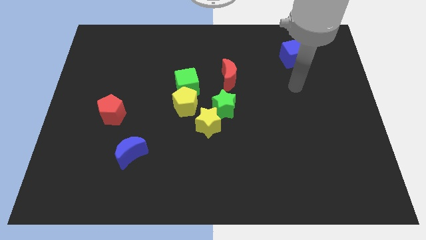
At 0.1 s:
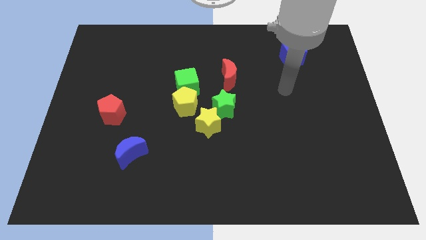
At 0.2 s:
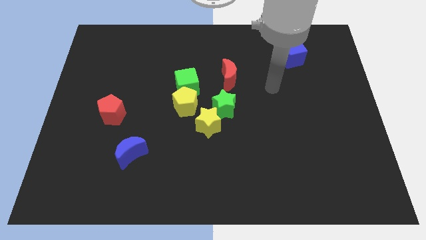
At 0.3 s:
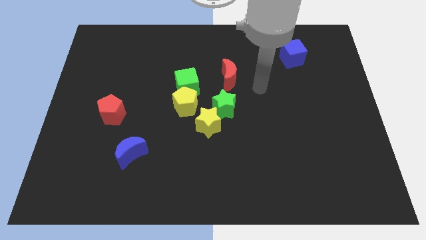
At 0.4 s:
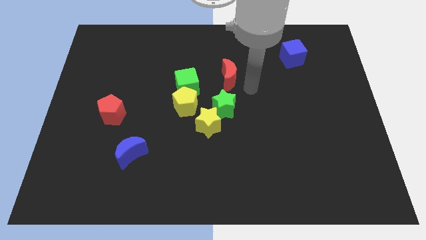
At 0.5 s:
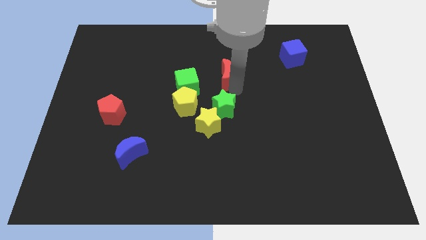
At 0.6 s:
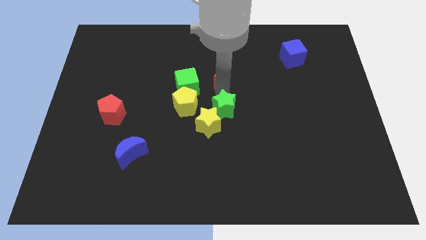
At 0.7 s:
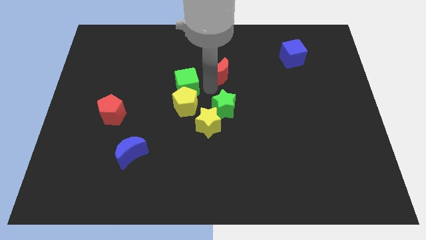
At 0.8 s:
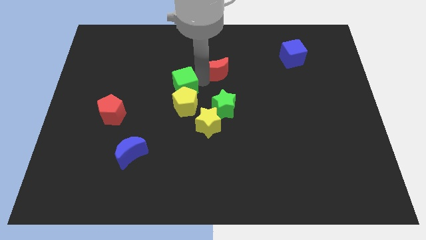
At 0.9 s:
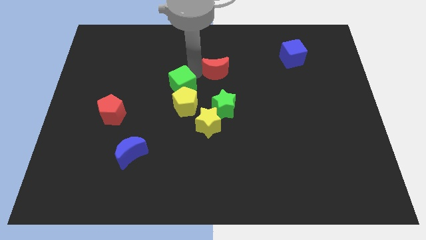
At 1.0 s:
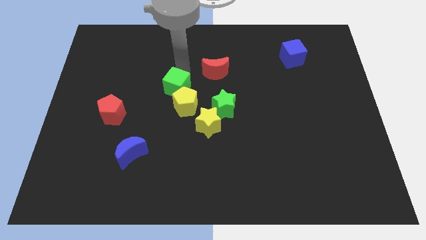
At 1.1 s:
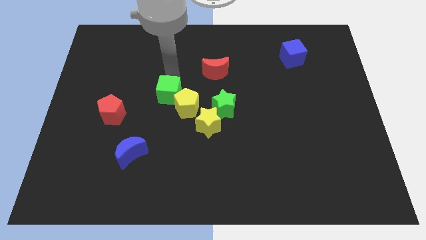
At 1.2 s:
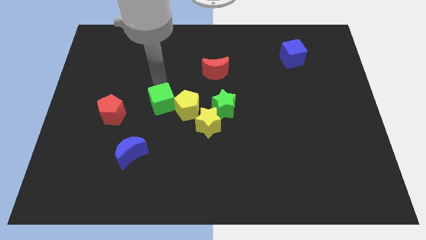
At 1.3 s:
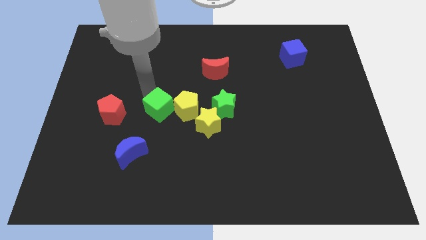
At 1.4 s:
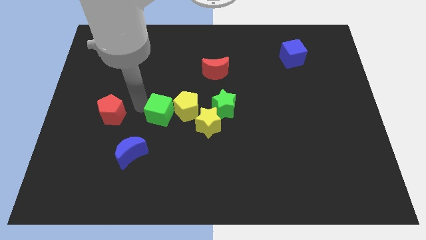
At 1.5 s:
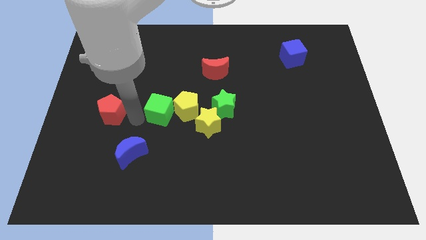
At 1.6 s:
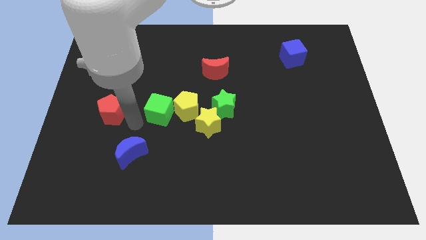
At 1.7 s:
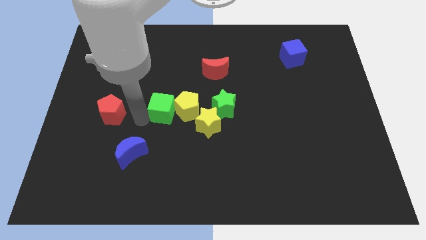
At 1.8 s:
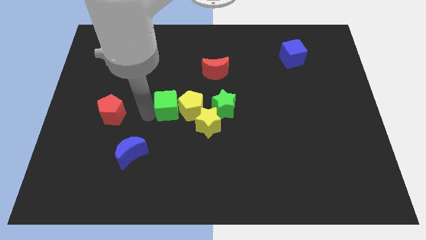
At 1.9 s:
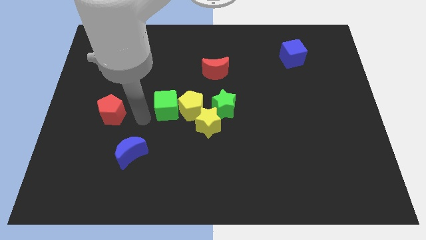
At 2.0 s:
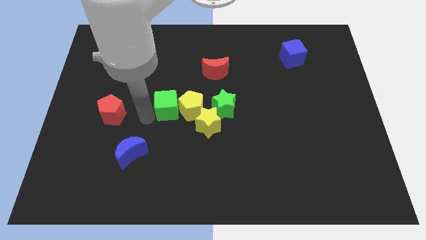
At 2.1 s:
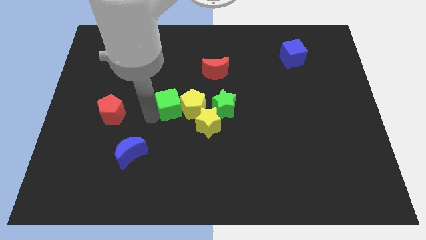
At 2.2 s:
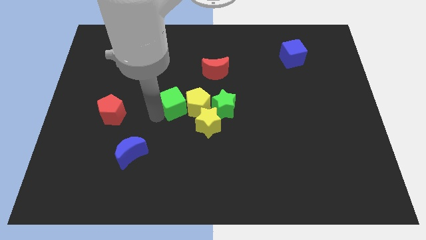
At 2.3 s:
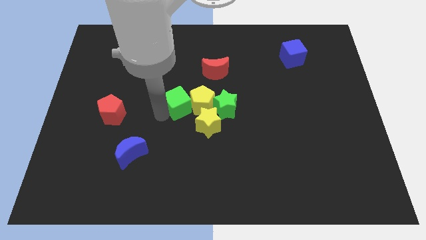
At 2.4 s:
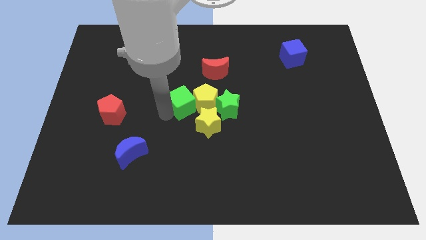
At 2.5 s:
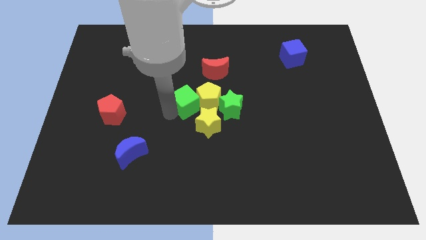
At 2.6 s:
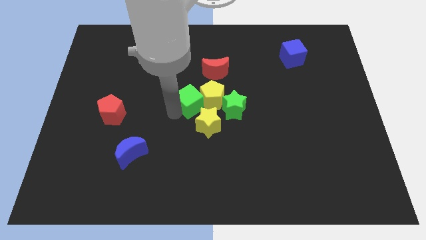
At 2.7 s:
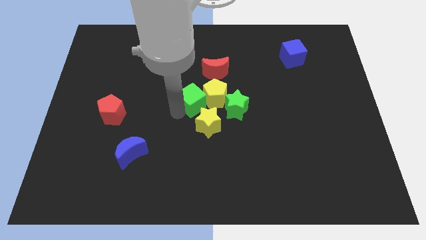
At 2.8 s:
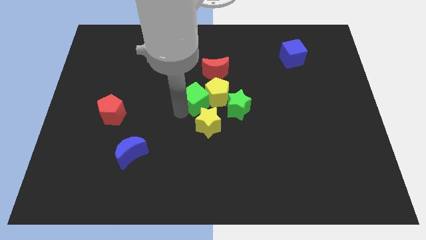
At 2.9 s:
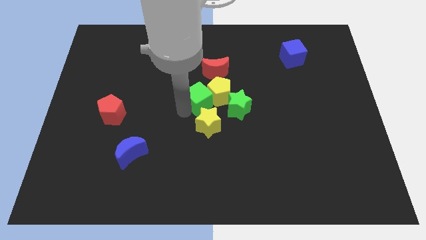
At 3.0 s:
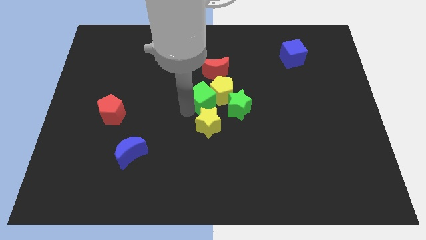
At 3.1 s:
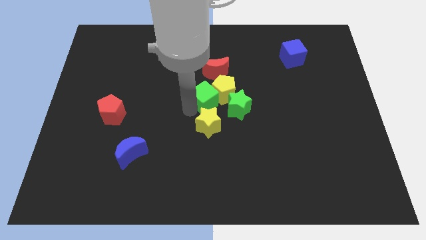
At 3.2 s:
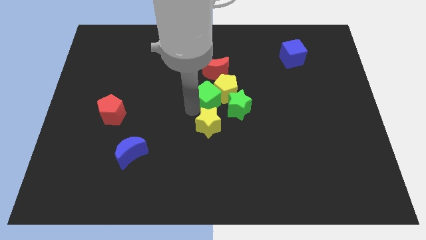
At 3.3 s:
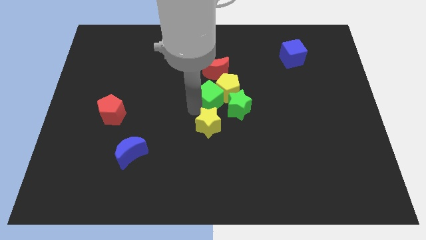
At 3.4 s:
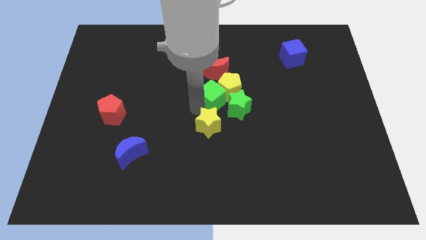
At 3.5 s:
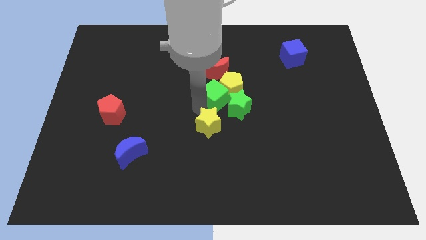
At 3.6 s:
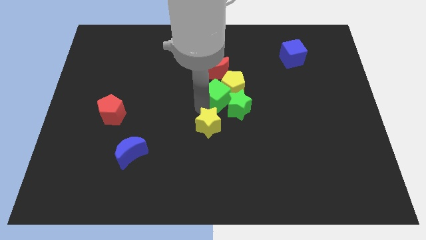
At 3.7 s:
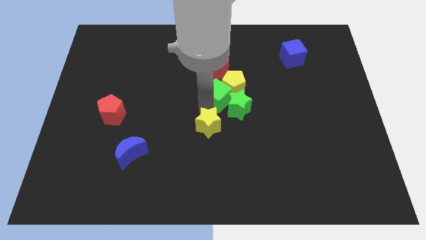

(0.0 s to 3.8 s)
slightly push the green cube to the right

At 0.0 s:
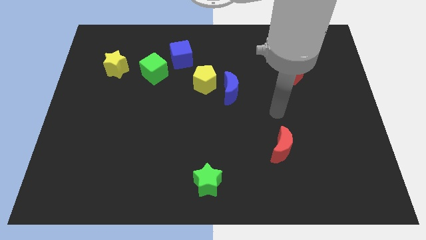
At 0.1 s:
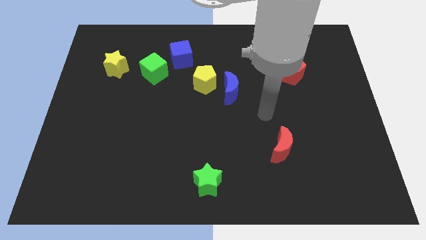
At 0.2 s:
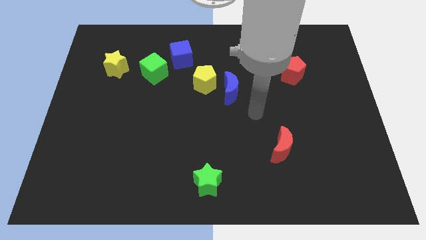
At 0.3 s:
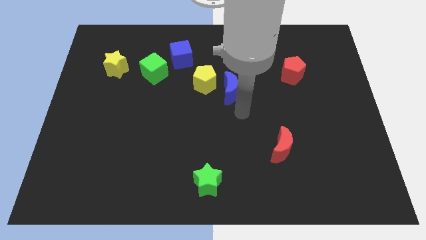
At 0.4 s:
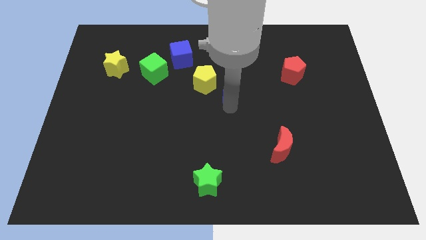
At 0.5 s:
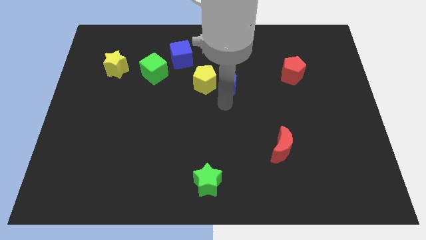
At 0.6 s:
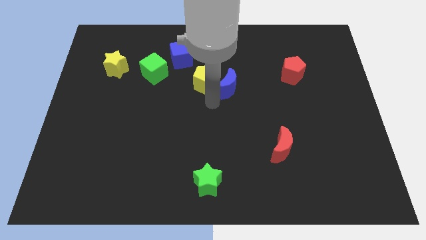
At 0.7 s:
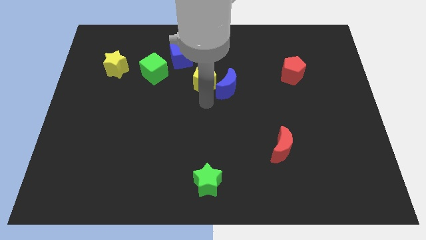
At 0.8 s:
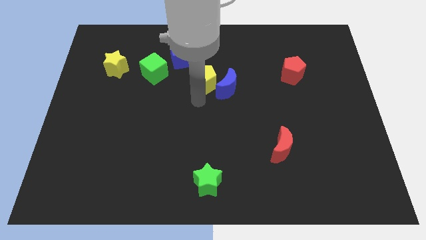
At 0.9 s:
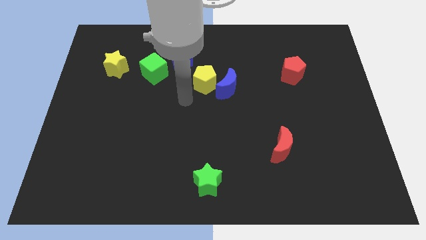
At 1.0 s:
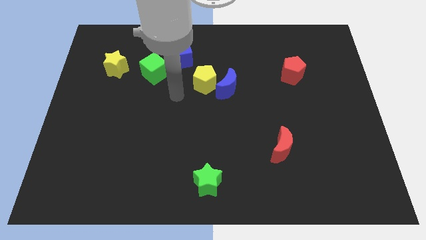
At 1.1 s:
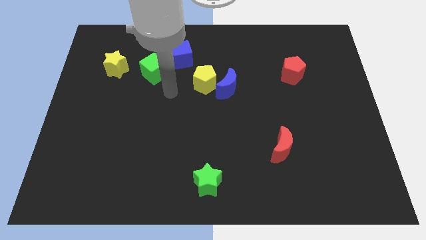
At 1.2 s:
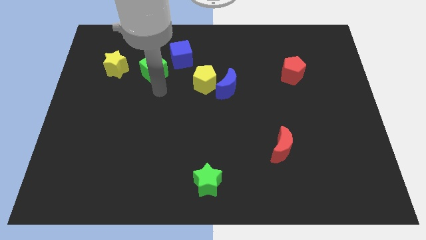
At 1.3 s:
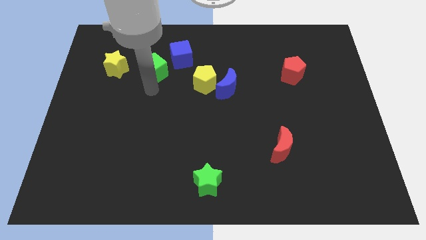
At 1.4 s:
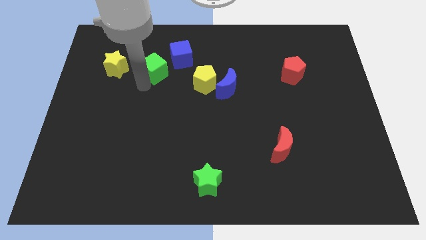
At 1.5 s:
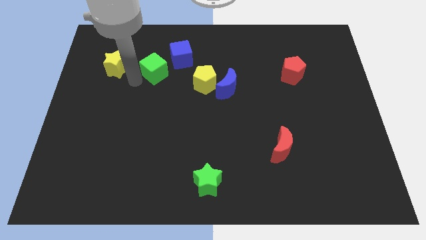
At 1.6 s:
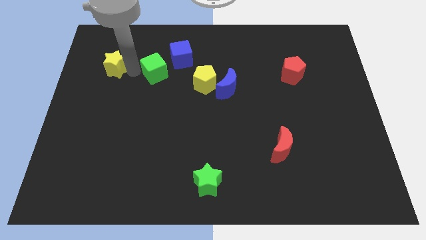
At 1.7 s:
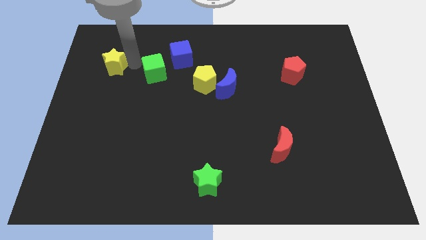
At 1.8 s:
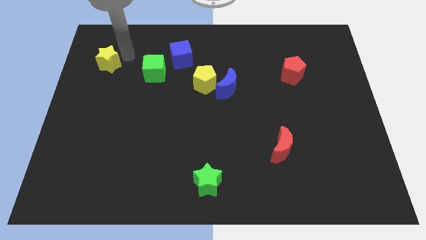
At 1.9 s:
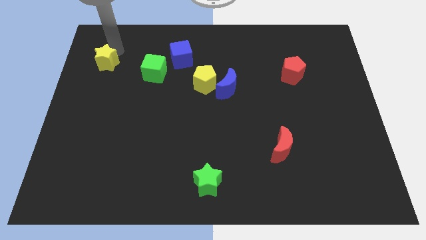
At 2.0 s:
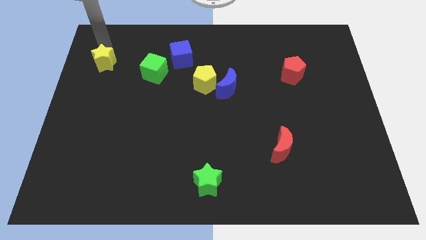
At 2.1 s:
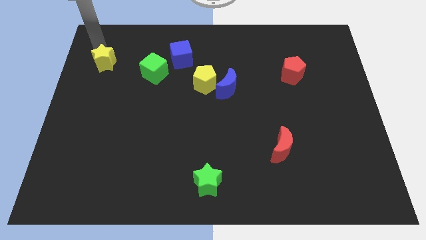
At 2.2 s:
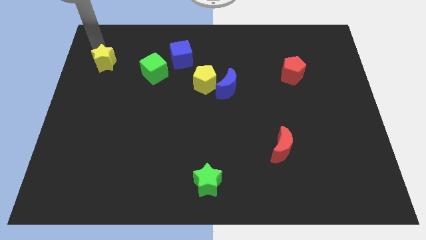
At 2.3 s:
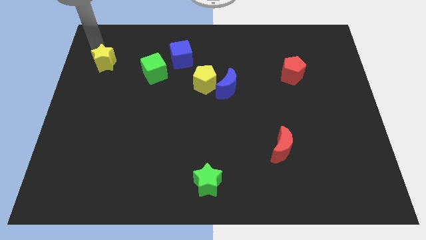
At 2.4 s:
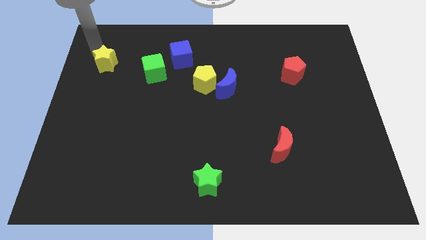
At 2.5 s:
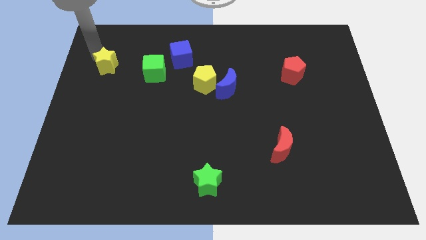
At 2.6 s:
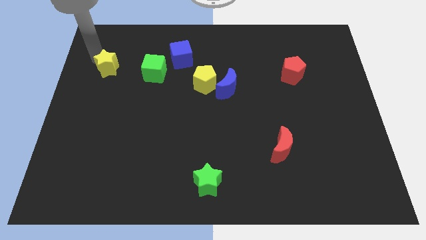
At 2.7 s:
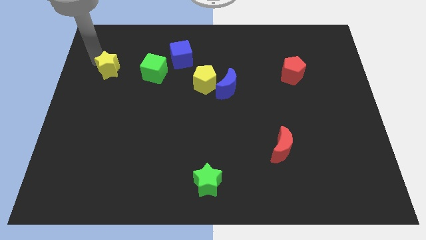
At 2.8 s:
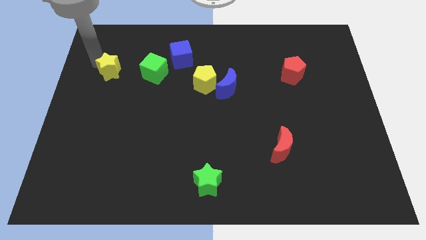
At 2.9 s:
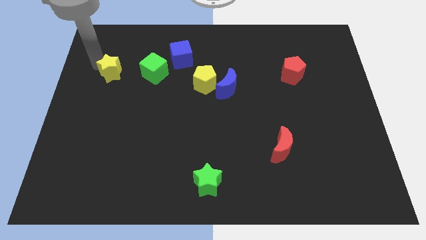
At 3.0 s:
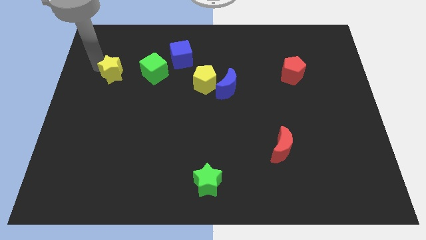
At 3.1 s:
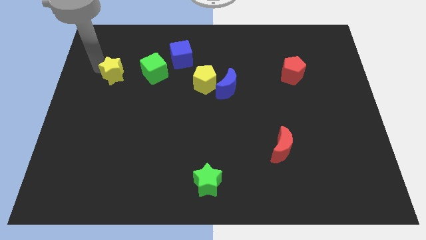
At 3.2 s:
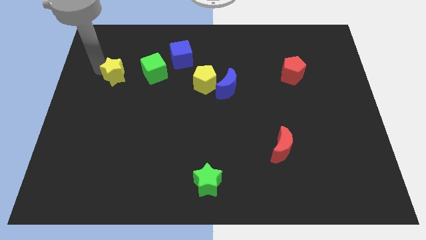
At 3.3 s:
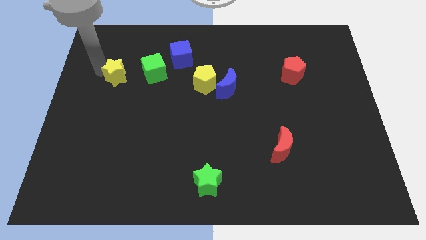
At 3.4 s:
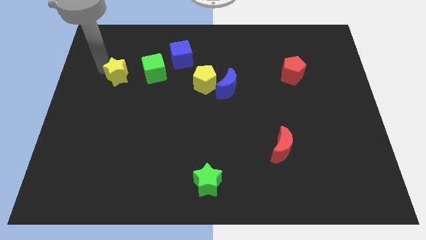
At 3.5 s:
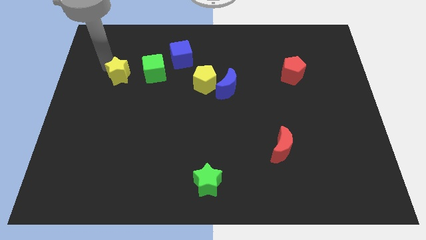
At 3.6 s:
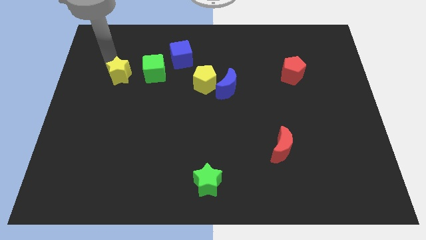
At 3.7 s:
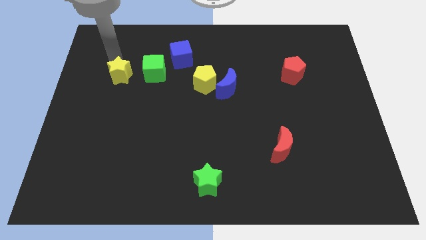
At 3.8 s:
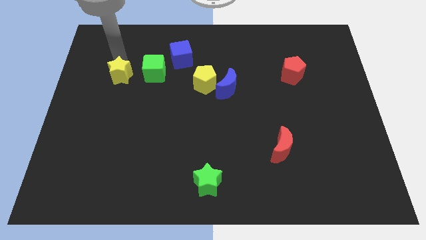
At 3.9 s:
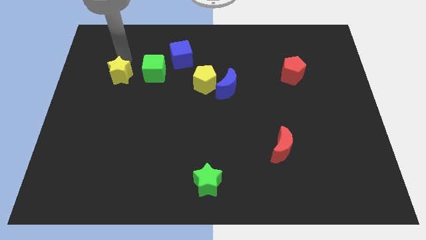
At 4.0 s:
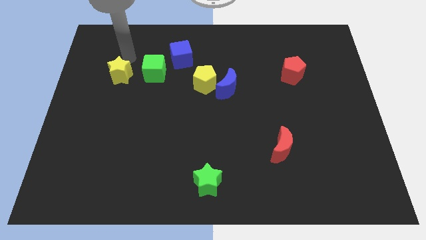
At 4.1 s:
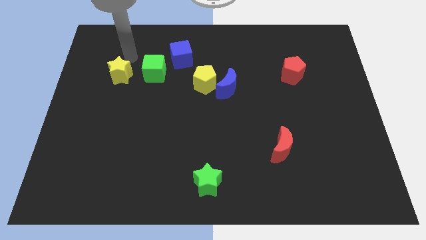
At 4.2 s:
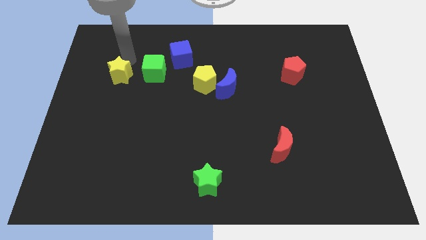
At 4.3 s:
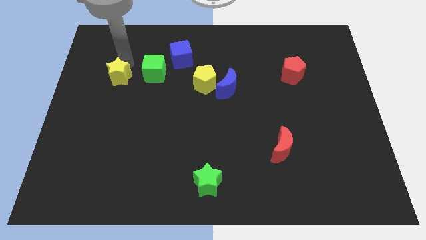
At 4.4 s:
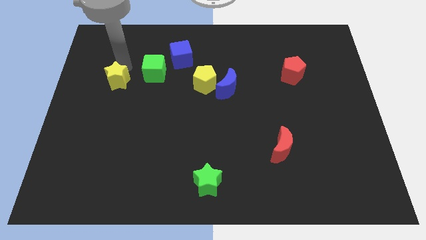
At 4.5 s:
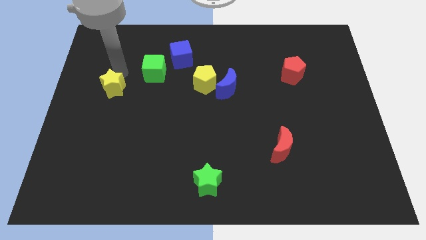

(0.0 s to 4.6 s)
slightly push the yellow star down
